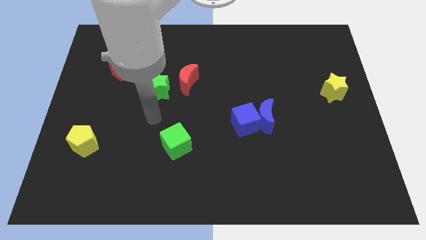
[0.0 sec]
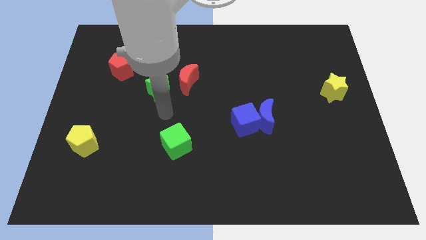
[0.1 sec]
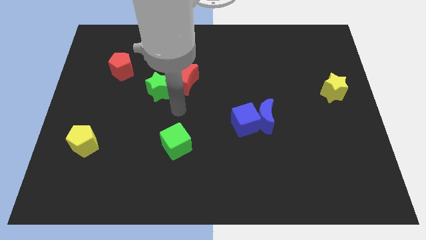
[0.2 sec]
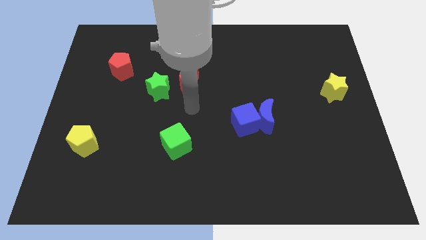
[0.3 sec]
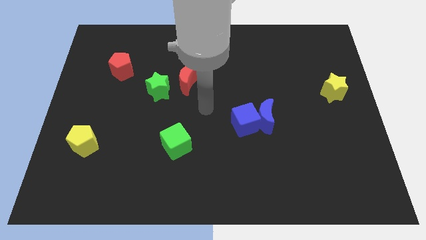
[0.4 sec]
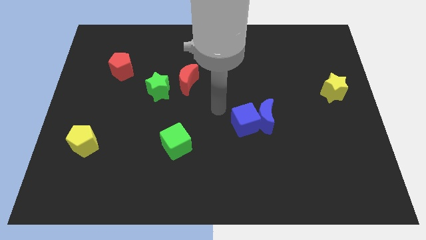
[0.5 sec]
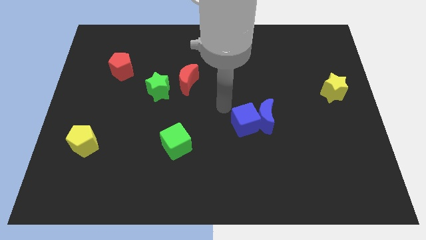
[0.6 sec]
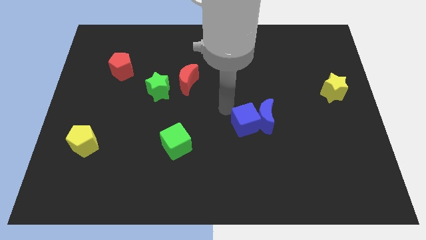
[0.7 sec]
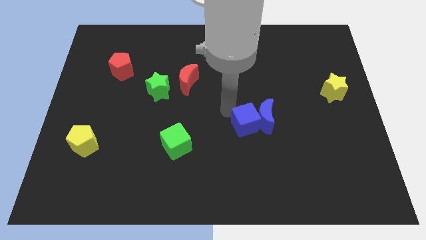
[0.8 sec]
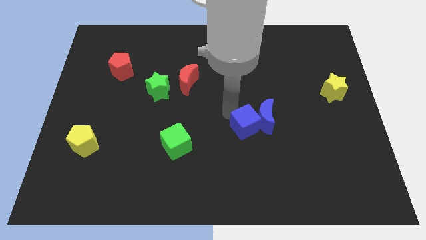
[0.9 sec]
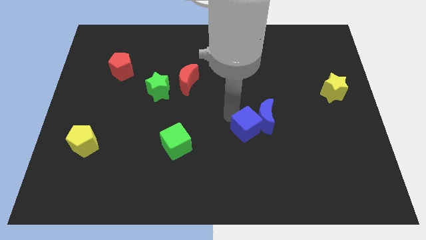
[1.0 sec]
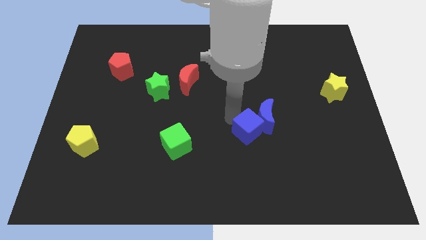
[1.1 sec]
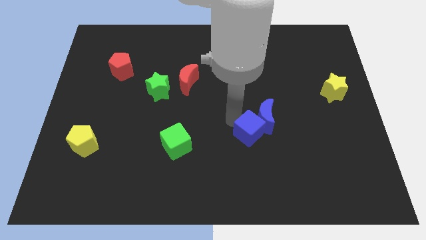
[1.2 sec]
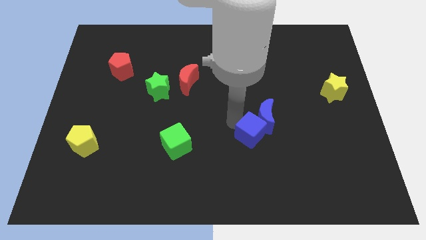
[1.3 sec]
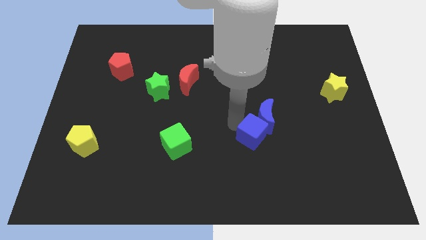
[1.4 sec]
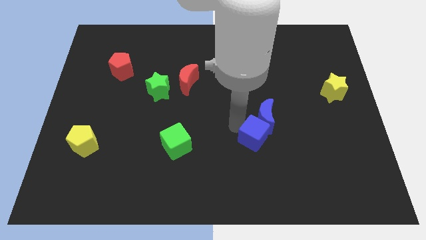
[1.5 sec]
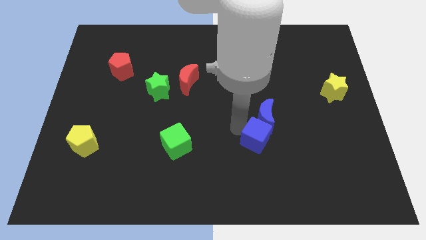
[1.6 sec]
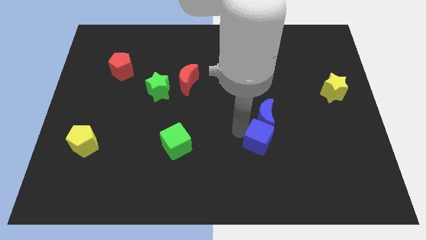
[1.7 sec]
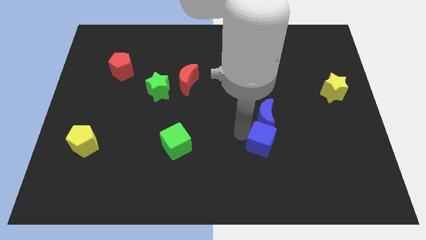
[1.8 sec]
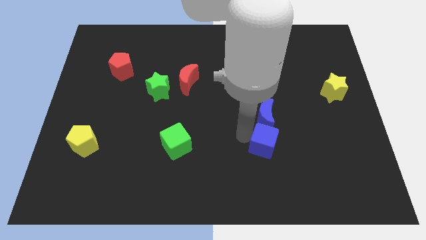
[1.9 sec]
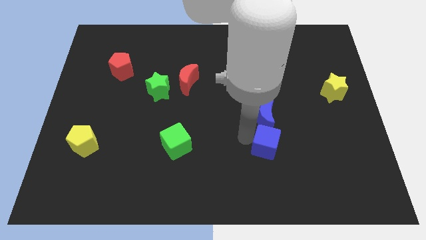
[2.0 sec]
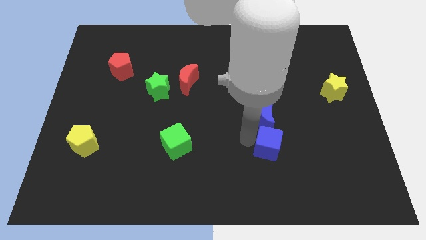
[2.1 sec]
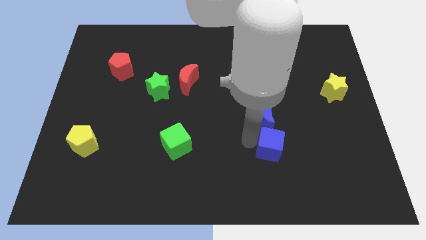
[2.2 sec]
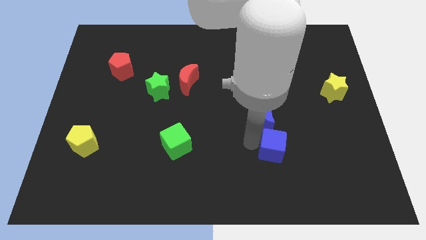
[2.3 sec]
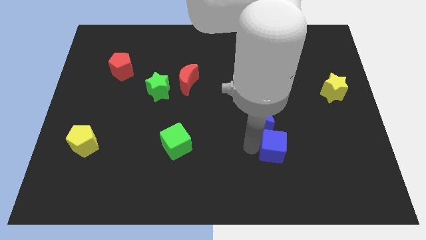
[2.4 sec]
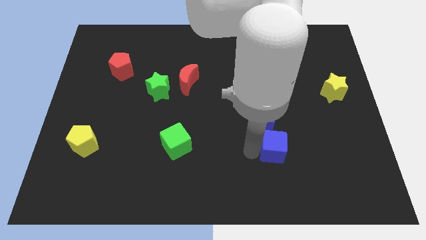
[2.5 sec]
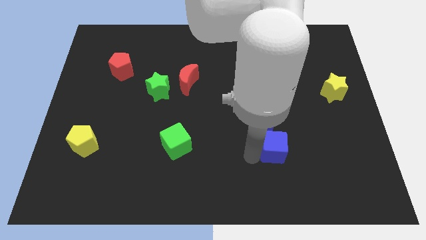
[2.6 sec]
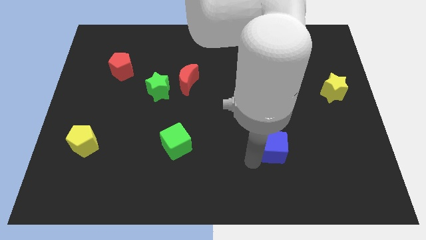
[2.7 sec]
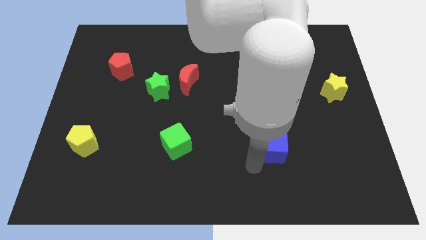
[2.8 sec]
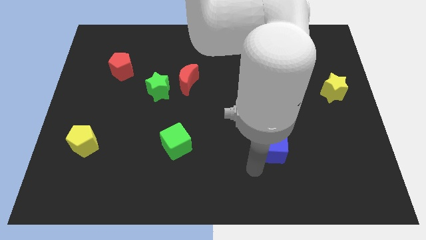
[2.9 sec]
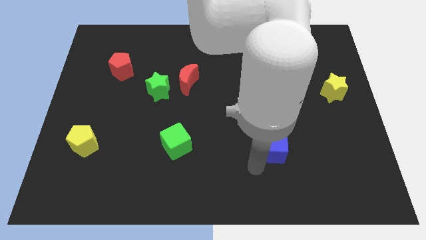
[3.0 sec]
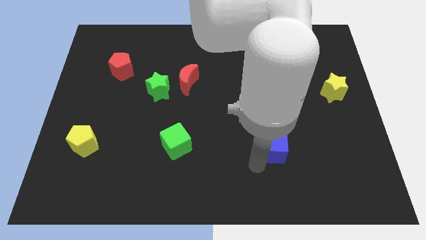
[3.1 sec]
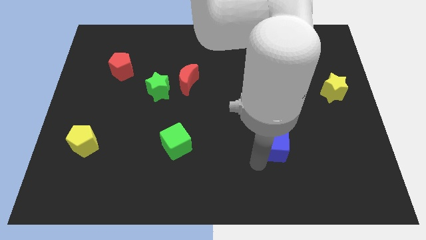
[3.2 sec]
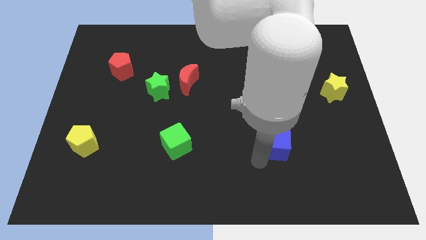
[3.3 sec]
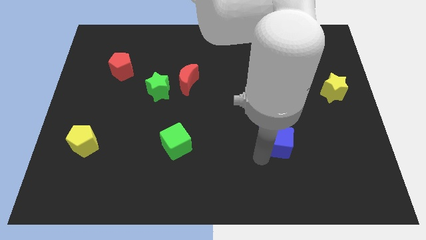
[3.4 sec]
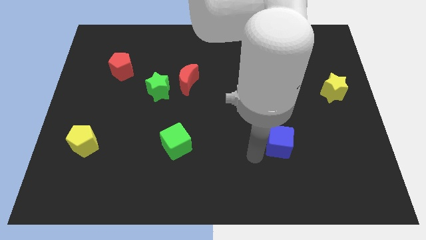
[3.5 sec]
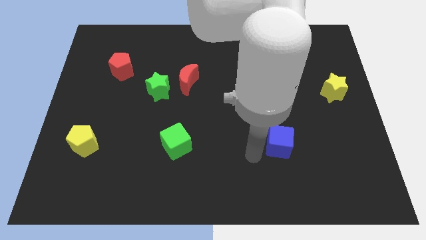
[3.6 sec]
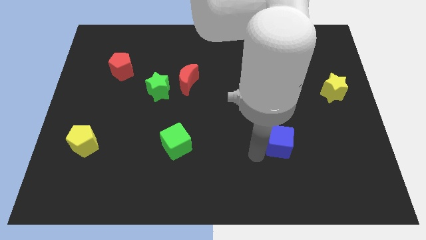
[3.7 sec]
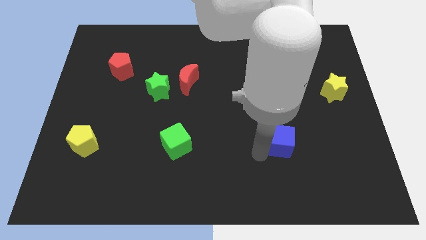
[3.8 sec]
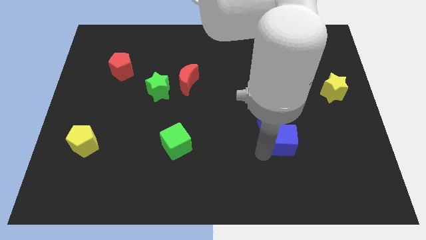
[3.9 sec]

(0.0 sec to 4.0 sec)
slightly slide the blue cube right

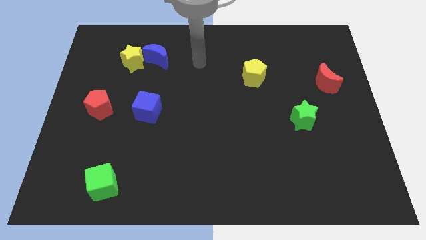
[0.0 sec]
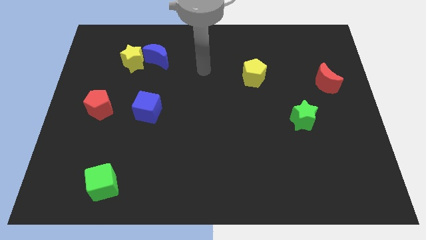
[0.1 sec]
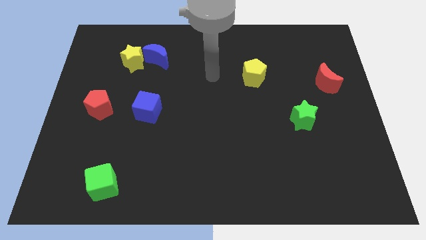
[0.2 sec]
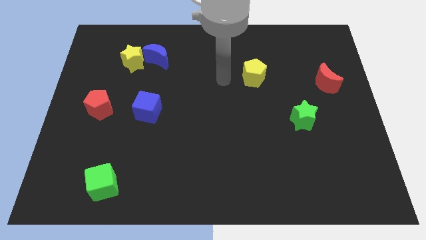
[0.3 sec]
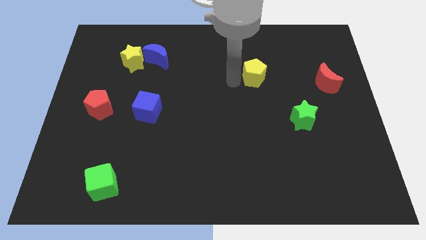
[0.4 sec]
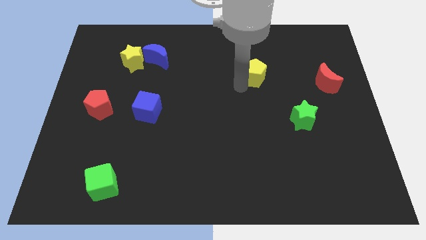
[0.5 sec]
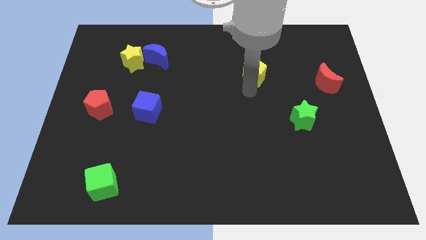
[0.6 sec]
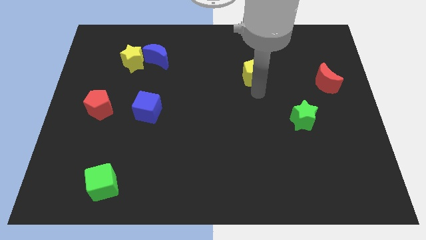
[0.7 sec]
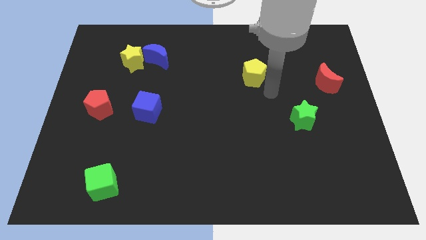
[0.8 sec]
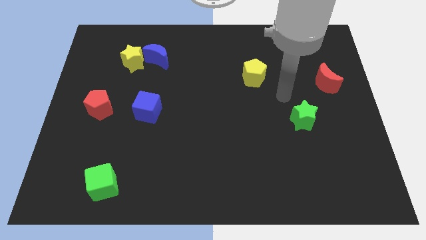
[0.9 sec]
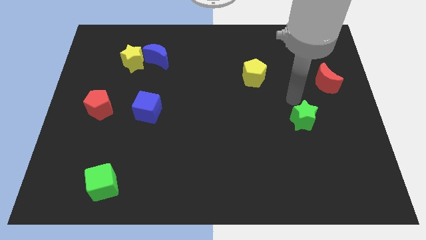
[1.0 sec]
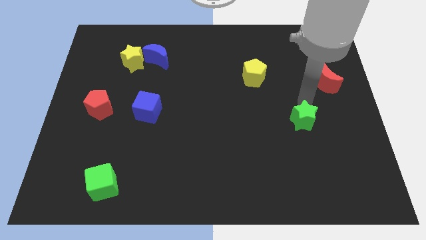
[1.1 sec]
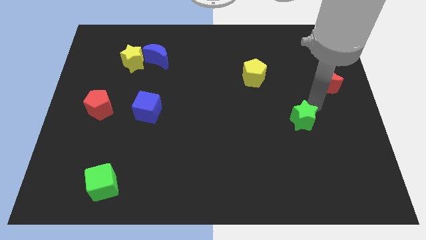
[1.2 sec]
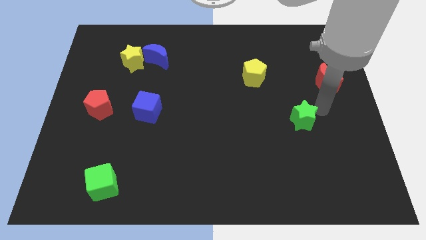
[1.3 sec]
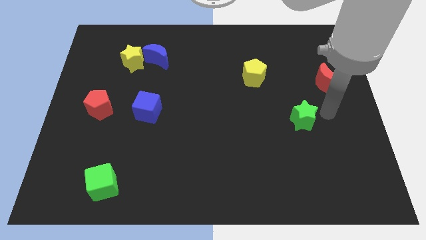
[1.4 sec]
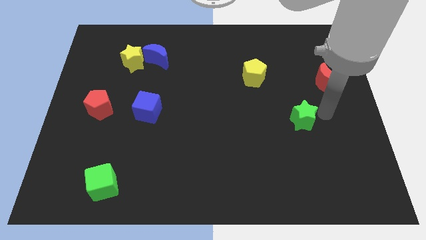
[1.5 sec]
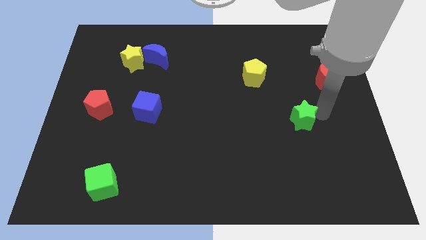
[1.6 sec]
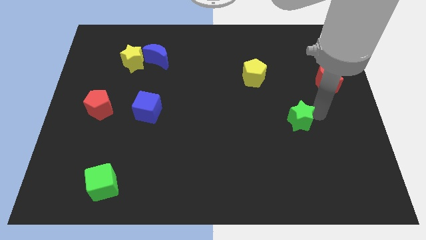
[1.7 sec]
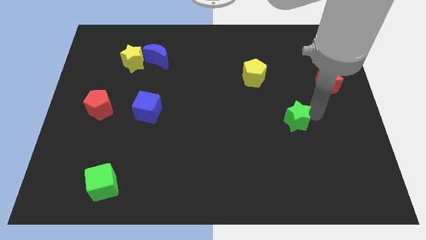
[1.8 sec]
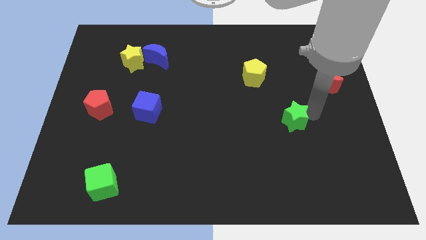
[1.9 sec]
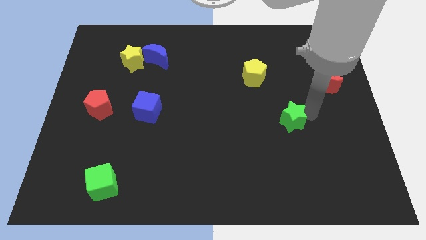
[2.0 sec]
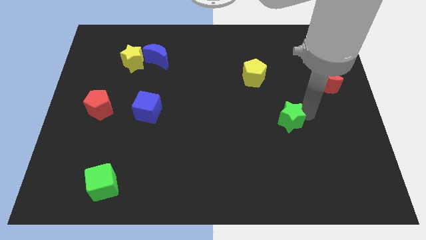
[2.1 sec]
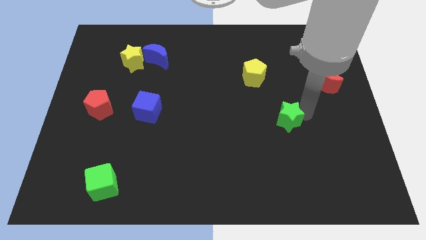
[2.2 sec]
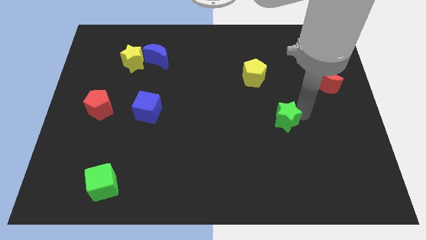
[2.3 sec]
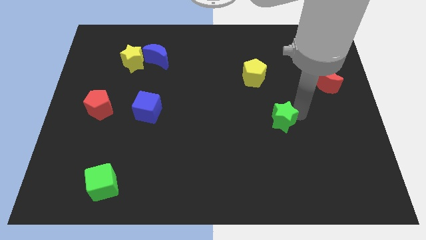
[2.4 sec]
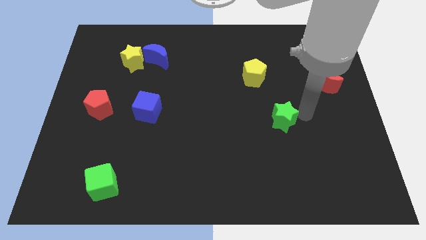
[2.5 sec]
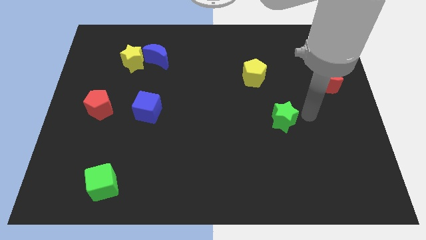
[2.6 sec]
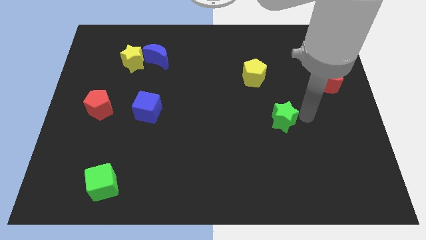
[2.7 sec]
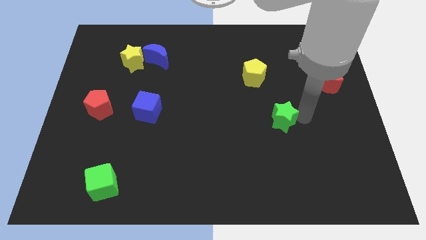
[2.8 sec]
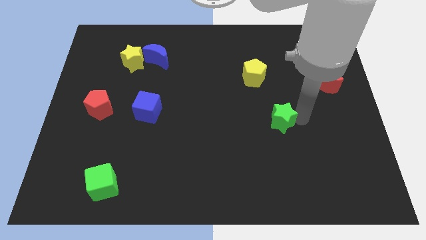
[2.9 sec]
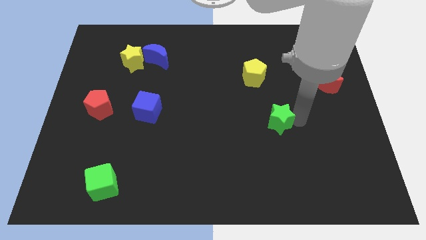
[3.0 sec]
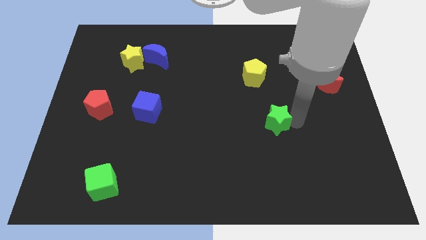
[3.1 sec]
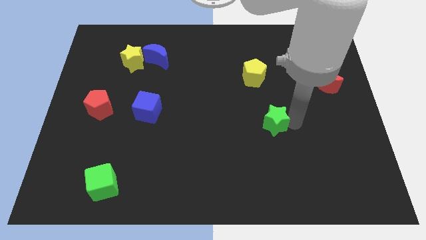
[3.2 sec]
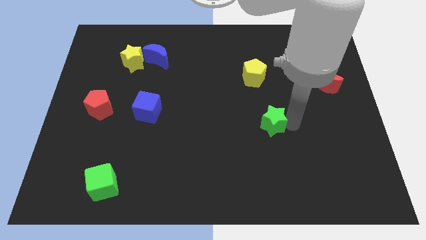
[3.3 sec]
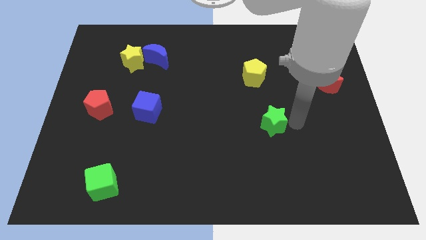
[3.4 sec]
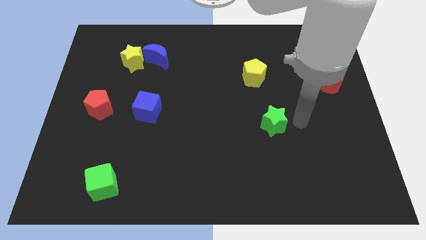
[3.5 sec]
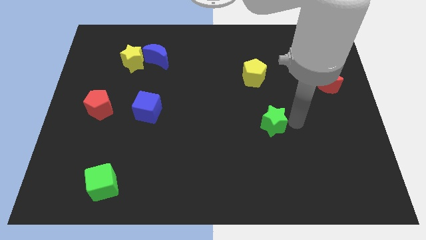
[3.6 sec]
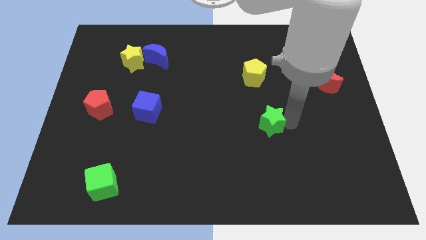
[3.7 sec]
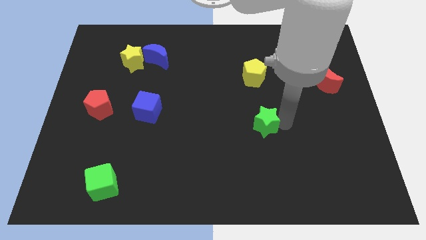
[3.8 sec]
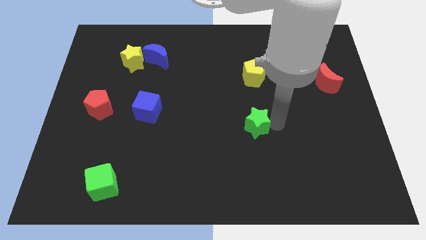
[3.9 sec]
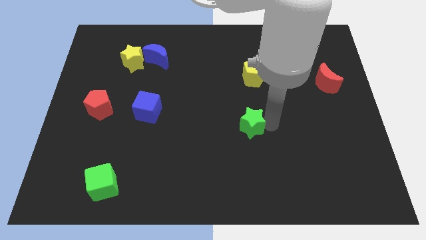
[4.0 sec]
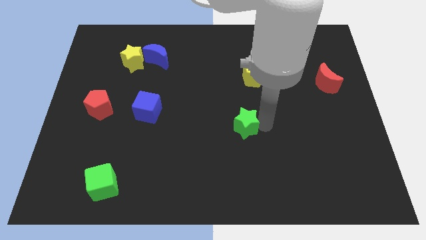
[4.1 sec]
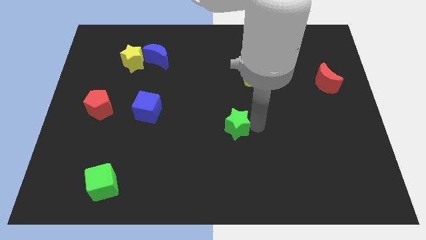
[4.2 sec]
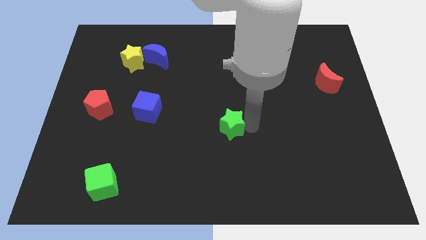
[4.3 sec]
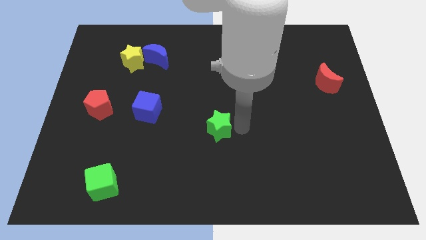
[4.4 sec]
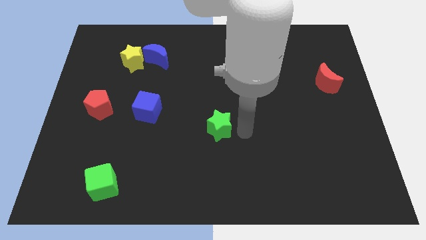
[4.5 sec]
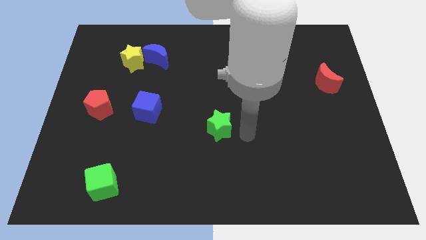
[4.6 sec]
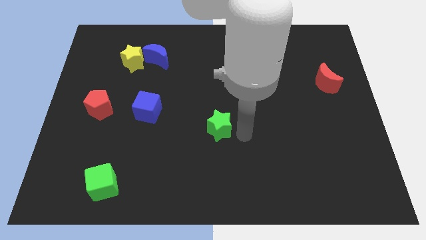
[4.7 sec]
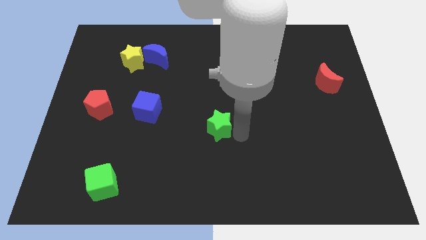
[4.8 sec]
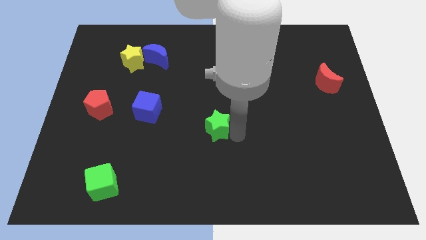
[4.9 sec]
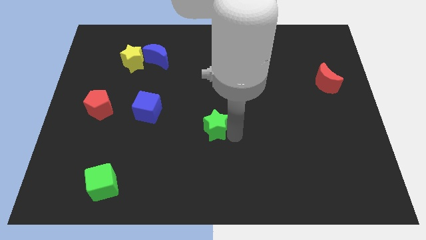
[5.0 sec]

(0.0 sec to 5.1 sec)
move the green star to the left
